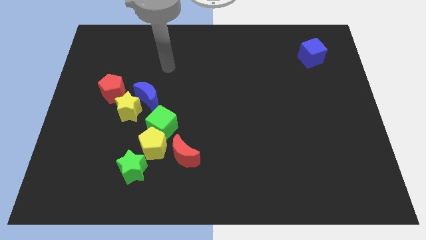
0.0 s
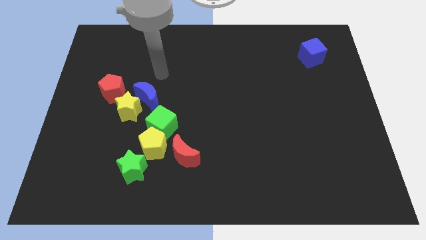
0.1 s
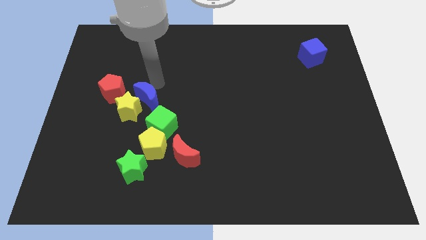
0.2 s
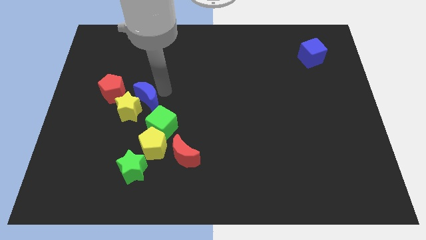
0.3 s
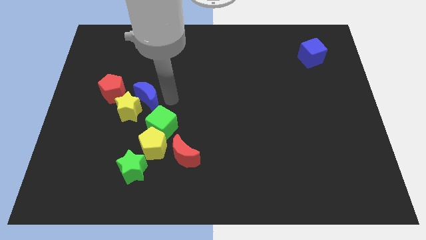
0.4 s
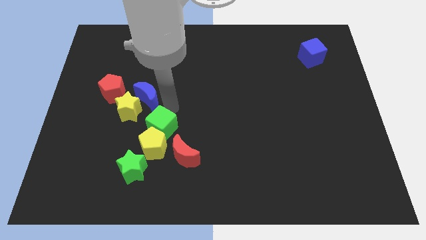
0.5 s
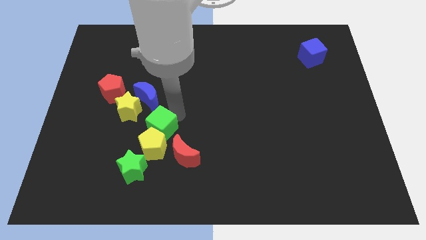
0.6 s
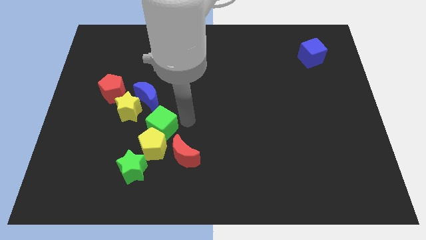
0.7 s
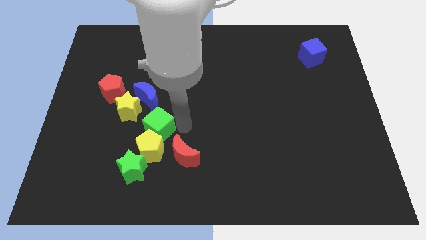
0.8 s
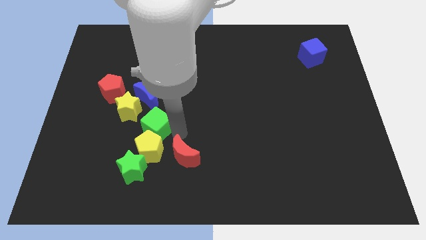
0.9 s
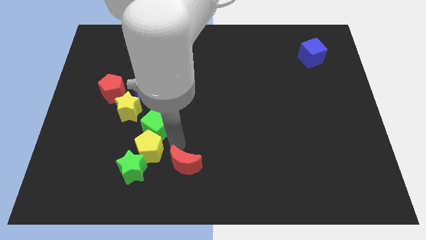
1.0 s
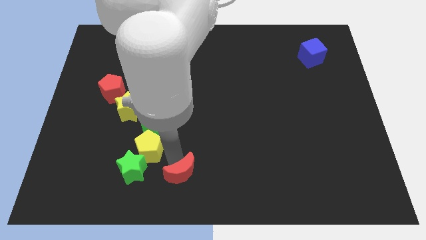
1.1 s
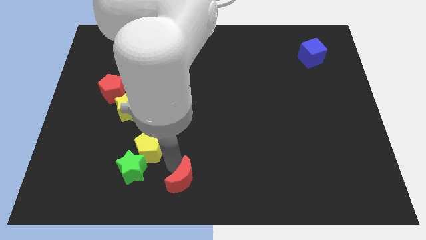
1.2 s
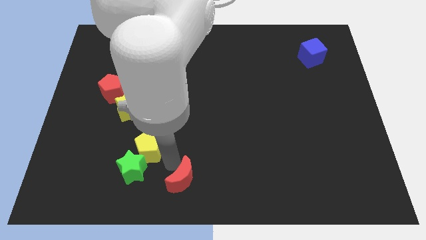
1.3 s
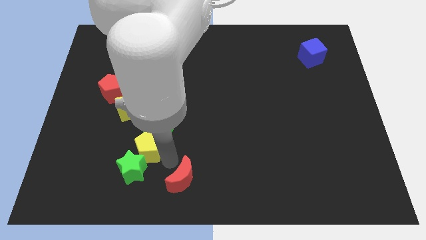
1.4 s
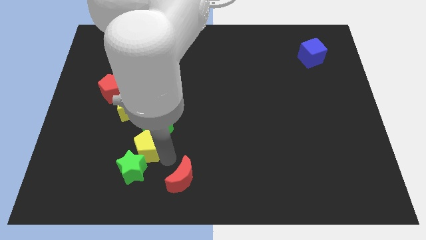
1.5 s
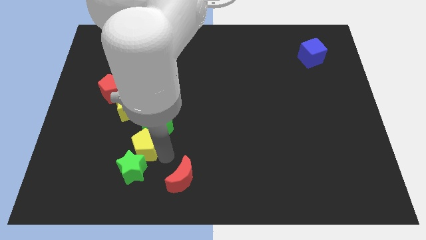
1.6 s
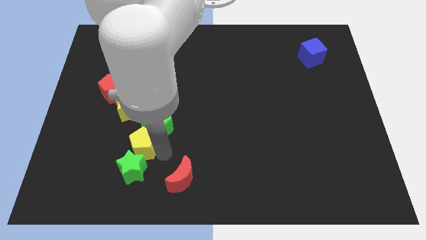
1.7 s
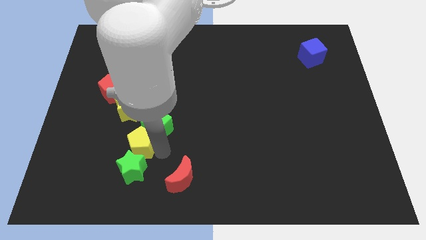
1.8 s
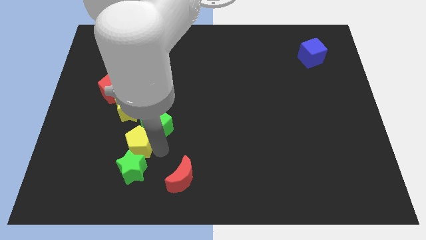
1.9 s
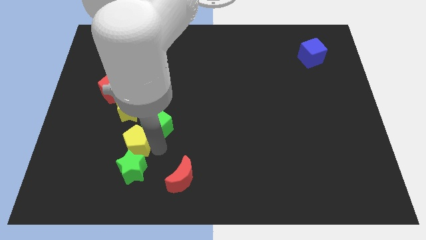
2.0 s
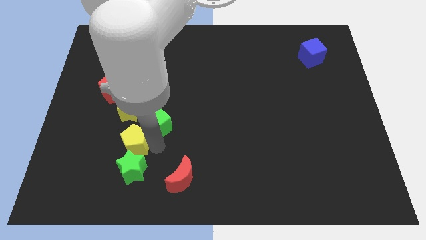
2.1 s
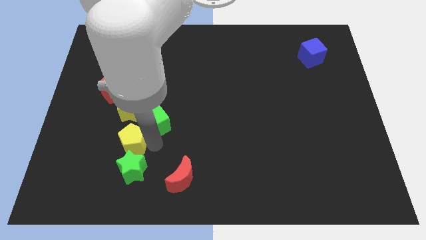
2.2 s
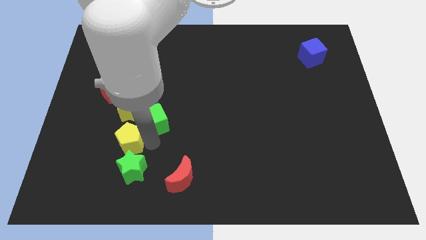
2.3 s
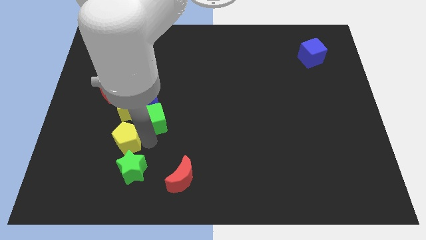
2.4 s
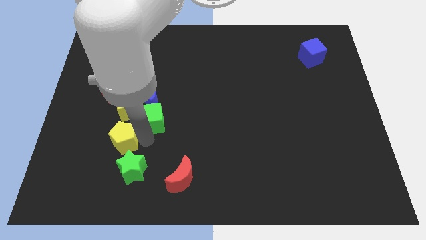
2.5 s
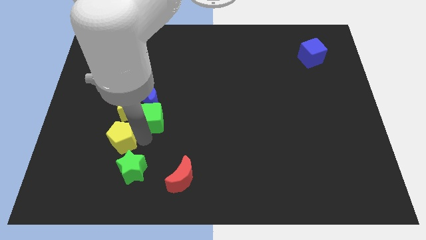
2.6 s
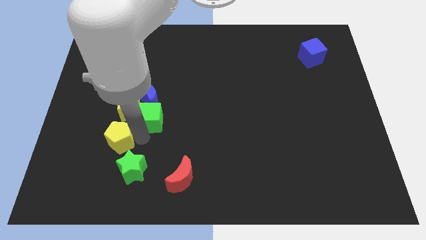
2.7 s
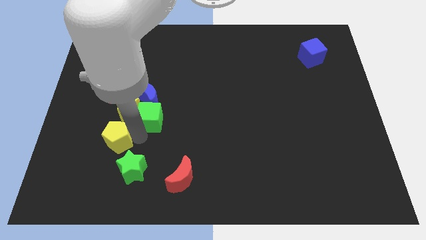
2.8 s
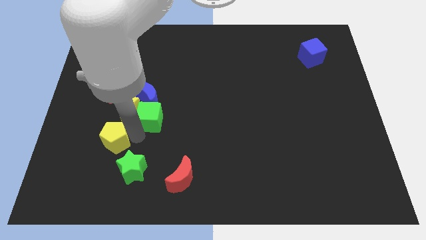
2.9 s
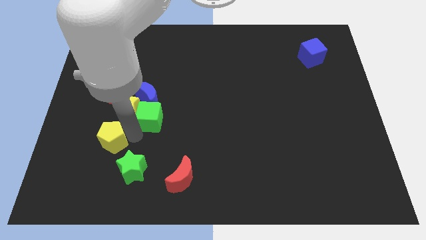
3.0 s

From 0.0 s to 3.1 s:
move the yellow pentagon away from the green cube, green star, and red moon

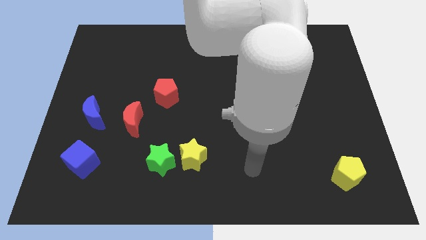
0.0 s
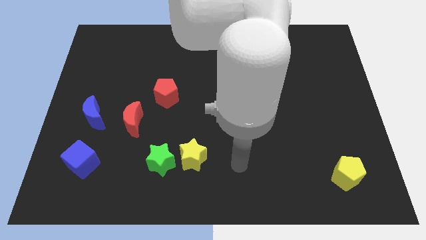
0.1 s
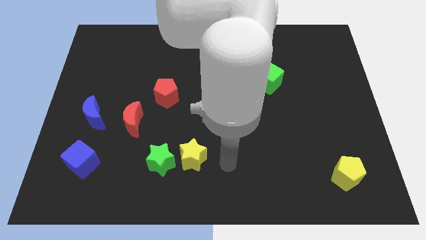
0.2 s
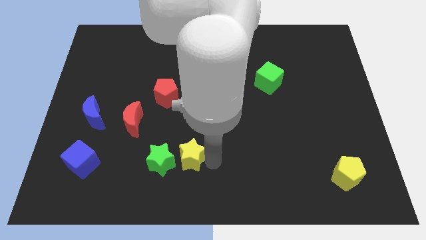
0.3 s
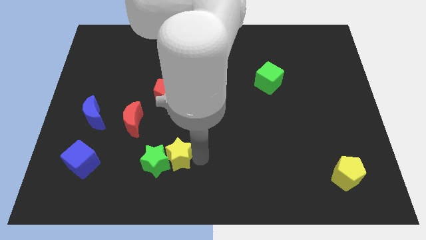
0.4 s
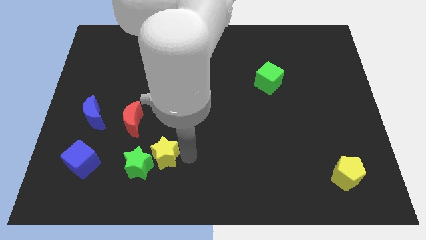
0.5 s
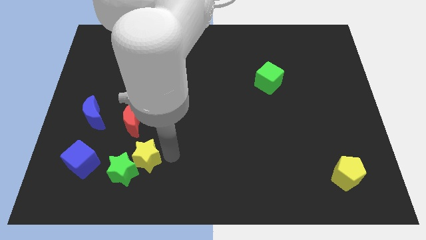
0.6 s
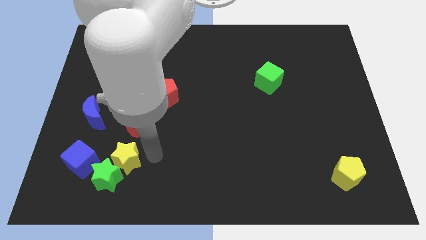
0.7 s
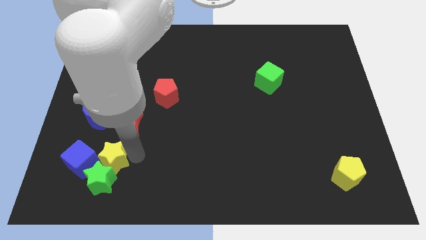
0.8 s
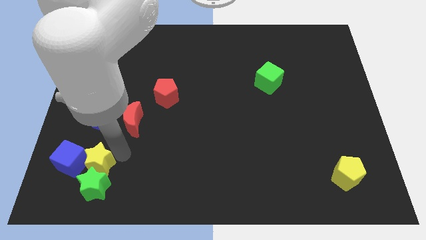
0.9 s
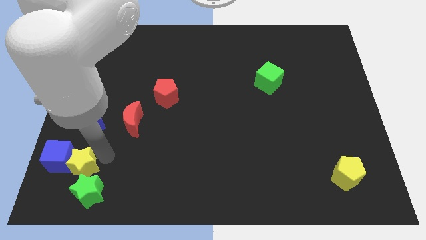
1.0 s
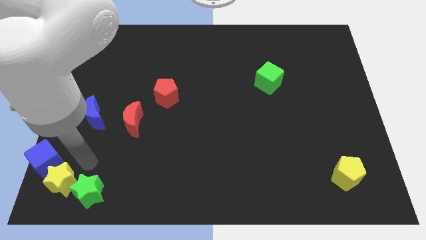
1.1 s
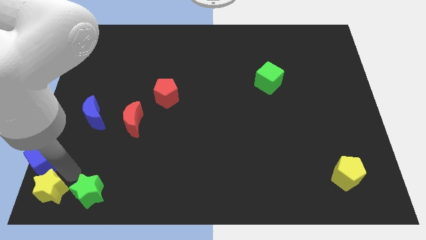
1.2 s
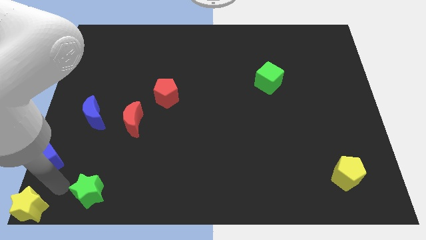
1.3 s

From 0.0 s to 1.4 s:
separate the green star from the yellow star

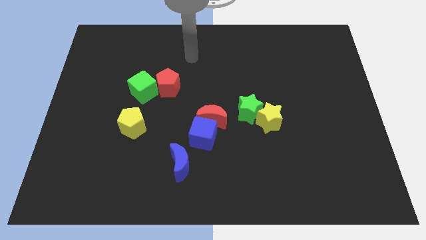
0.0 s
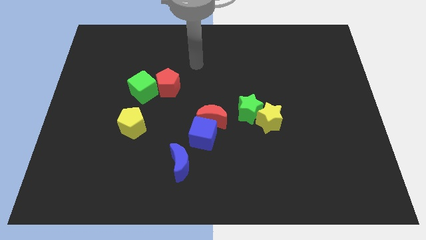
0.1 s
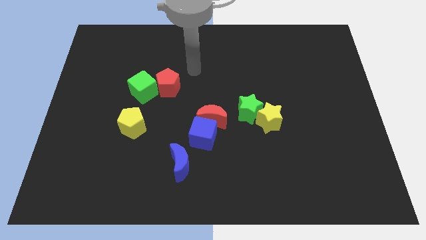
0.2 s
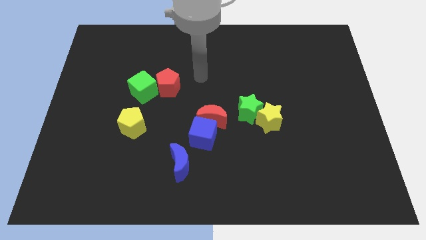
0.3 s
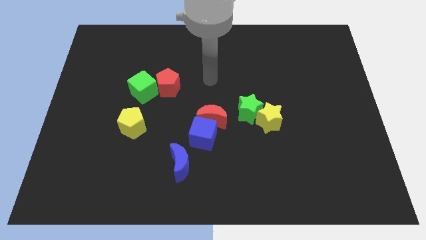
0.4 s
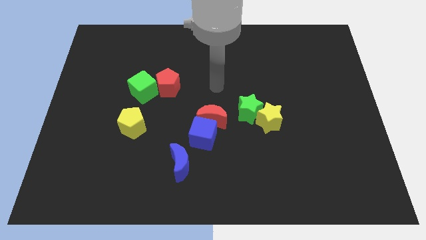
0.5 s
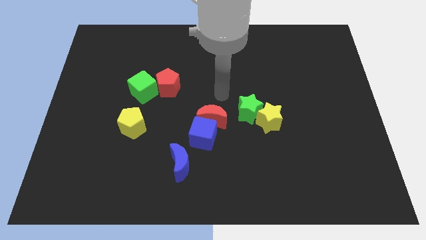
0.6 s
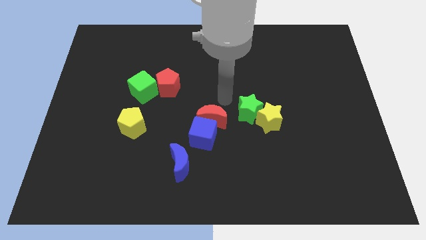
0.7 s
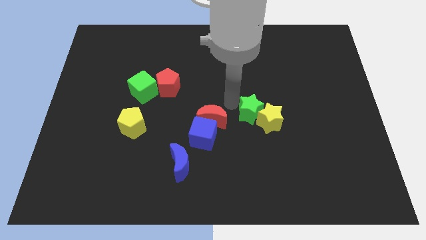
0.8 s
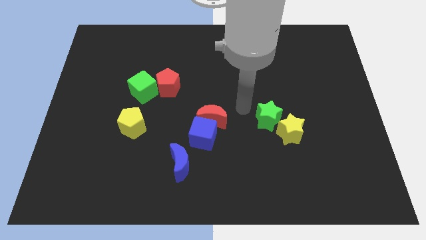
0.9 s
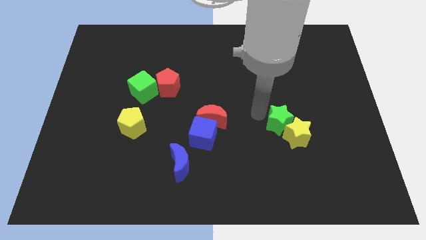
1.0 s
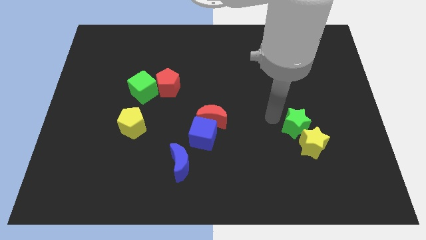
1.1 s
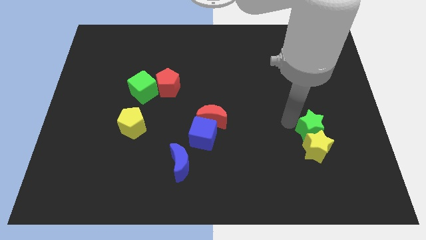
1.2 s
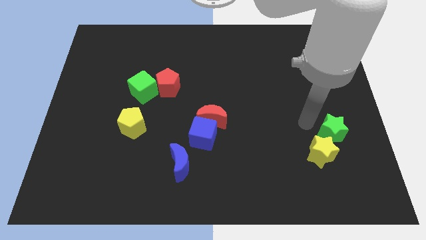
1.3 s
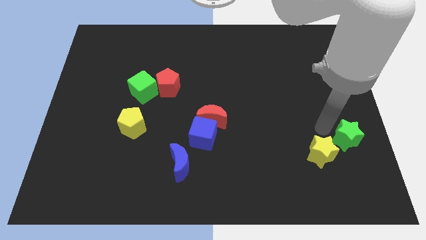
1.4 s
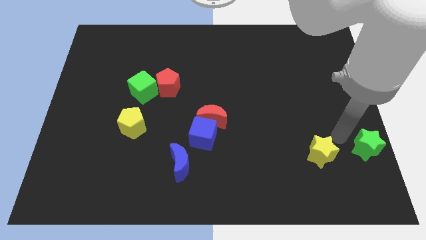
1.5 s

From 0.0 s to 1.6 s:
separate the yellow star from the green star

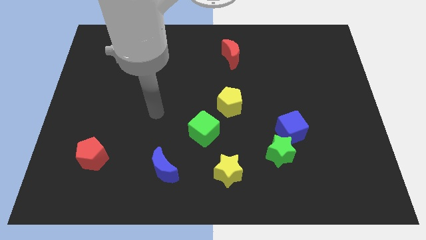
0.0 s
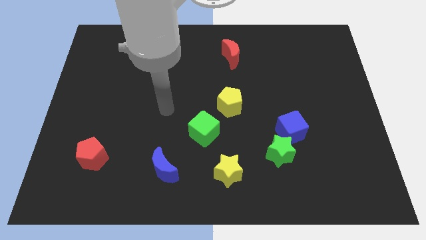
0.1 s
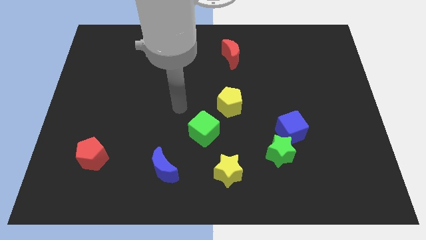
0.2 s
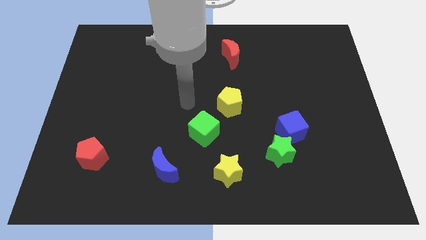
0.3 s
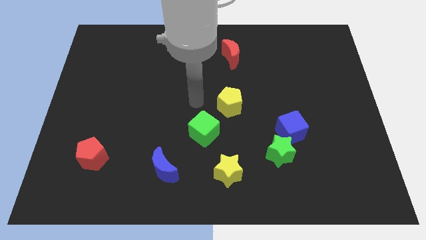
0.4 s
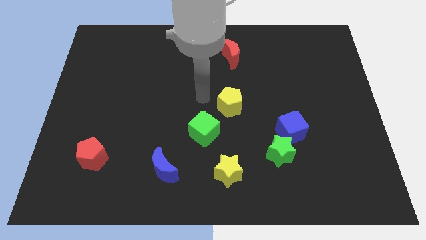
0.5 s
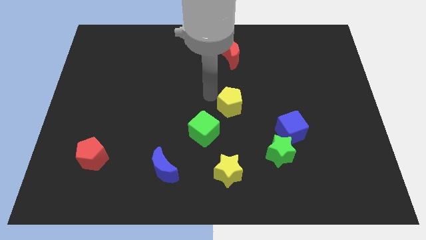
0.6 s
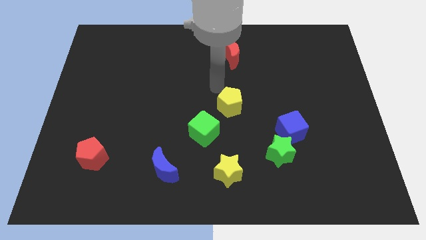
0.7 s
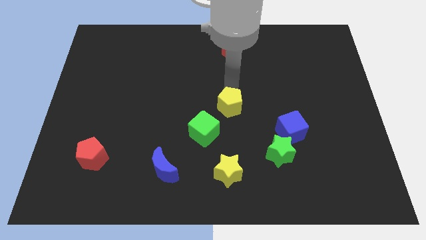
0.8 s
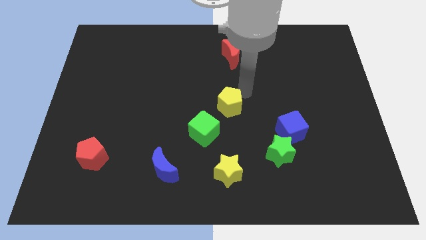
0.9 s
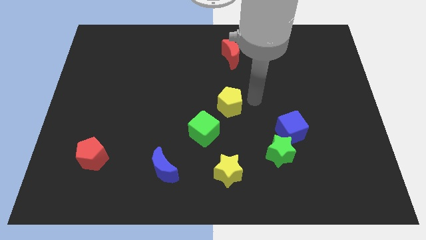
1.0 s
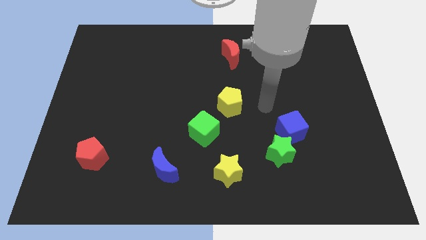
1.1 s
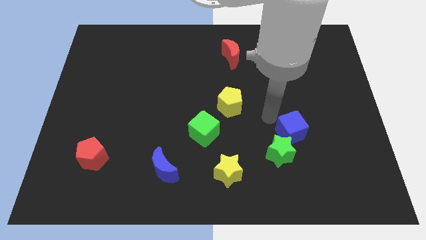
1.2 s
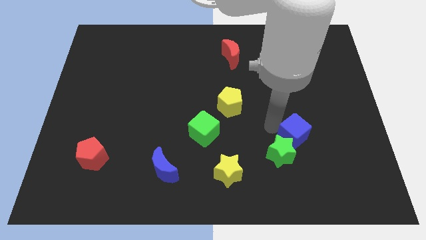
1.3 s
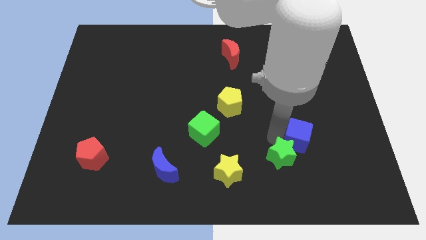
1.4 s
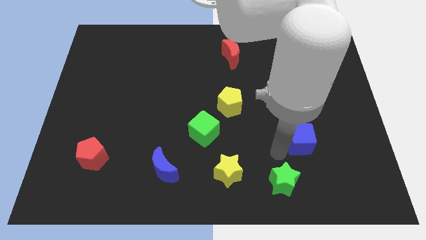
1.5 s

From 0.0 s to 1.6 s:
pull the blue cube apart from the green star

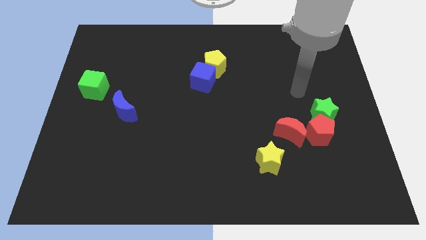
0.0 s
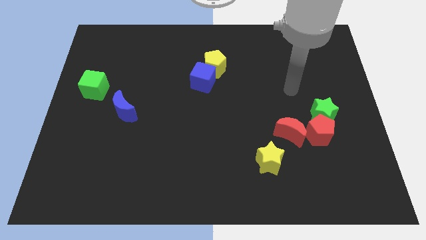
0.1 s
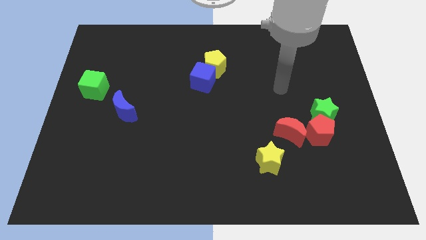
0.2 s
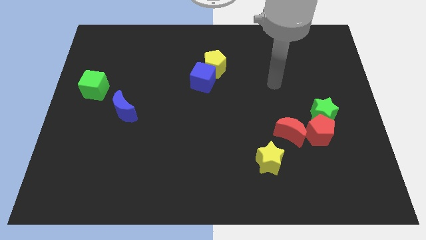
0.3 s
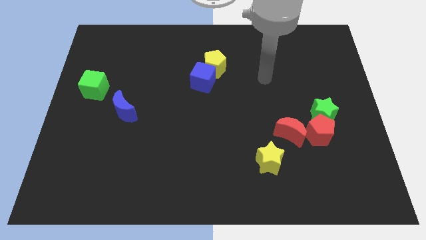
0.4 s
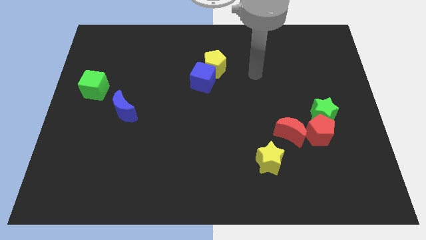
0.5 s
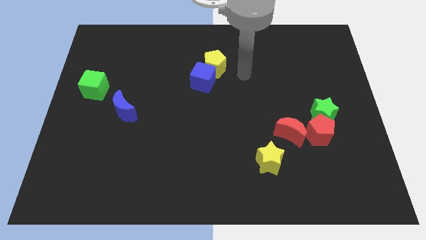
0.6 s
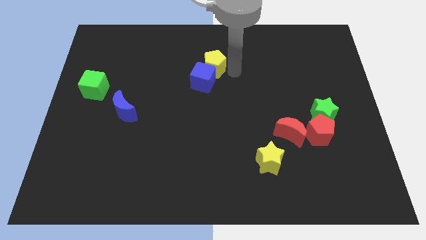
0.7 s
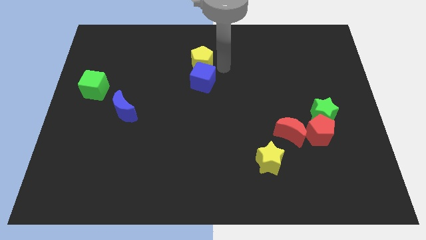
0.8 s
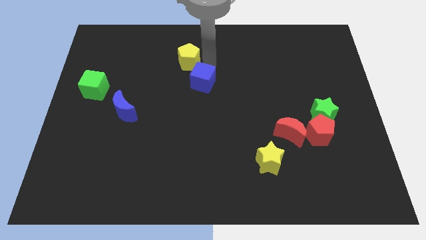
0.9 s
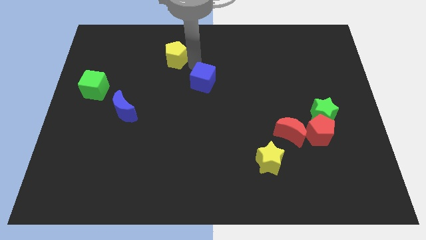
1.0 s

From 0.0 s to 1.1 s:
separate the blue cube from the yellow pentagon

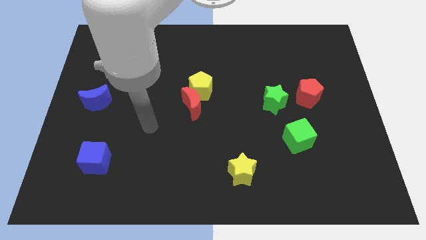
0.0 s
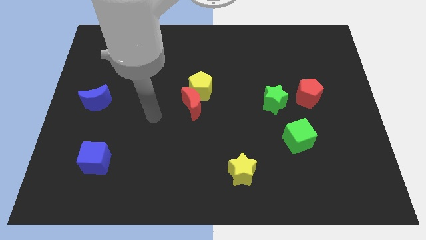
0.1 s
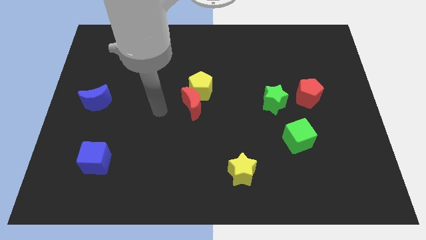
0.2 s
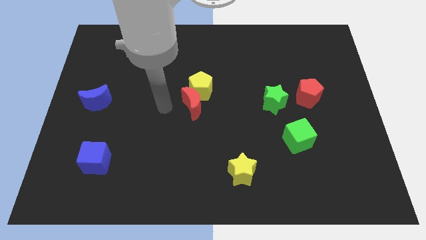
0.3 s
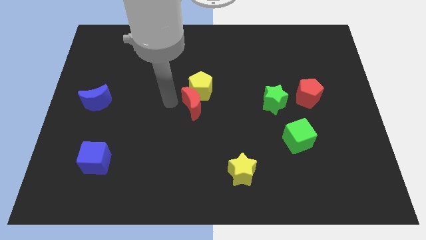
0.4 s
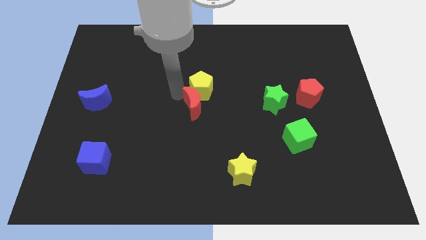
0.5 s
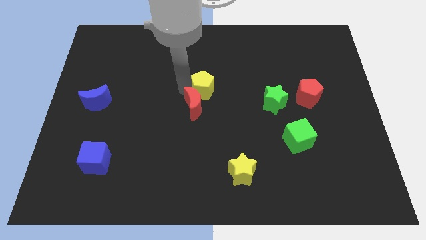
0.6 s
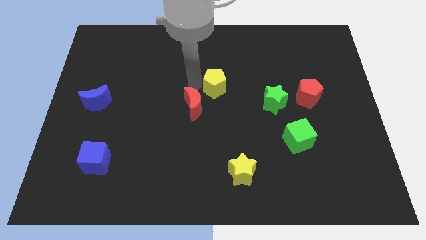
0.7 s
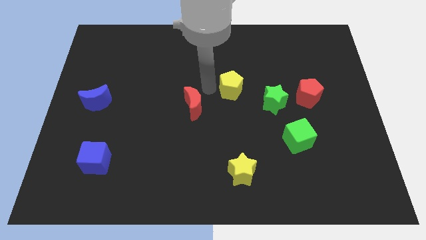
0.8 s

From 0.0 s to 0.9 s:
pull the red moon apart from the yellow pentagon
